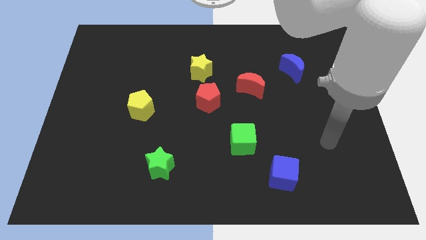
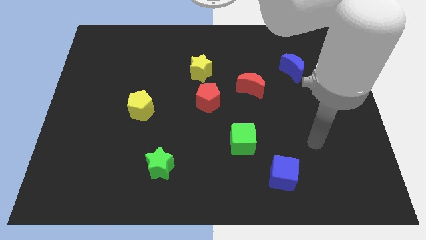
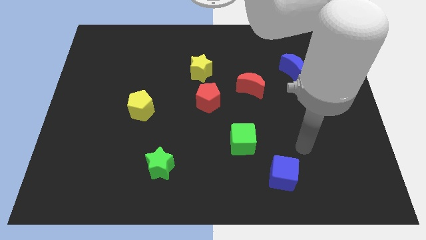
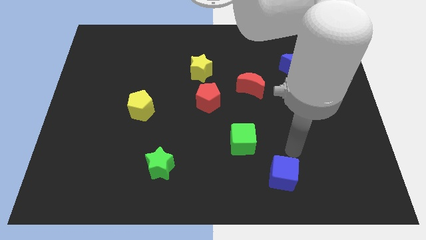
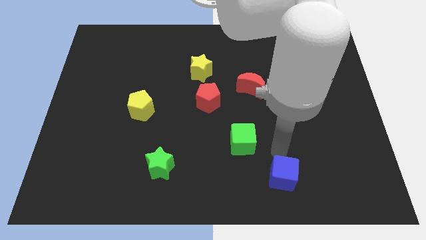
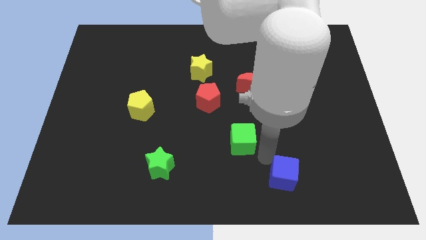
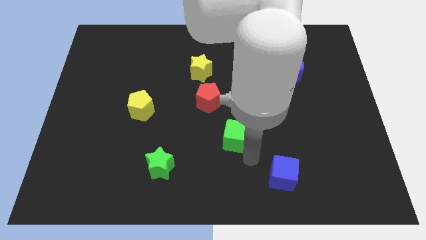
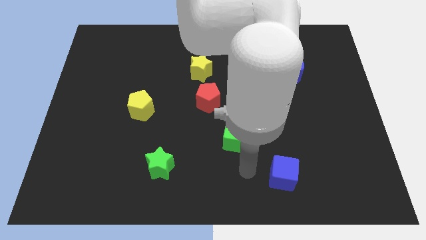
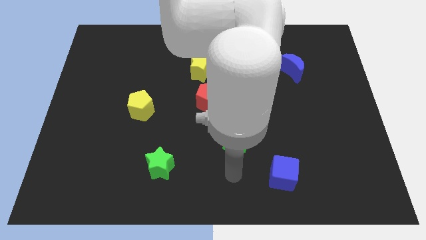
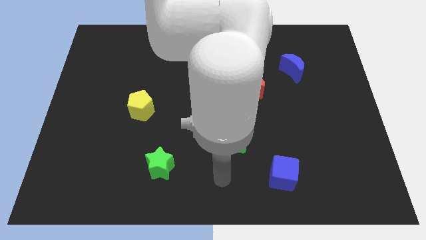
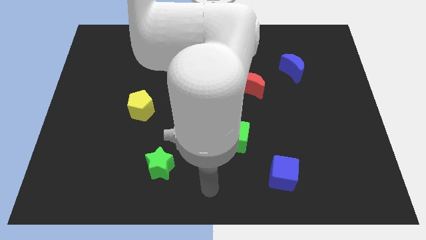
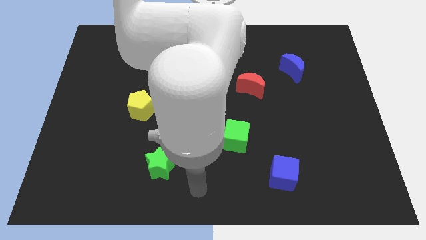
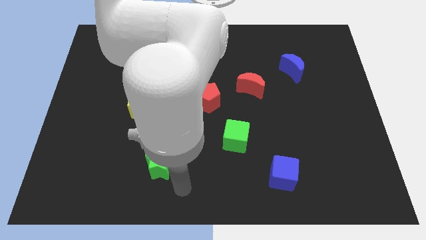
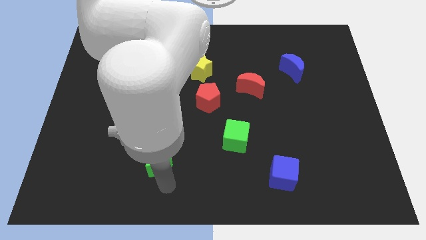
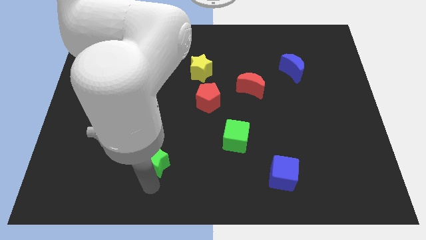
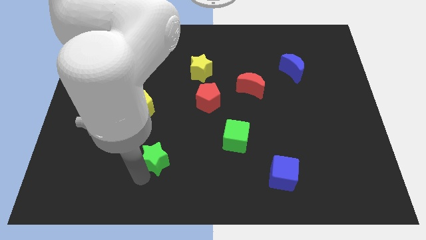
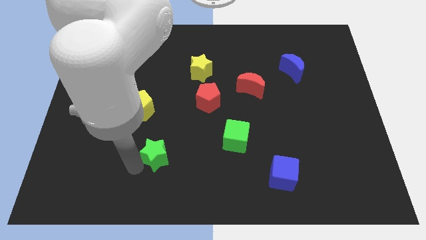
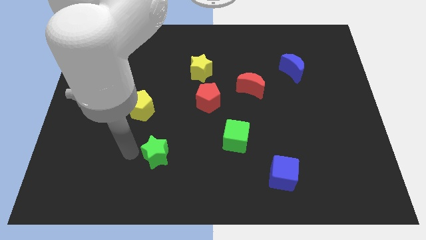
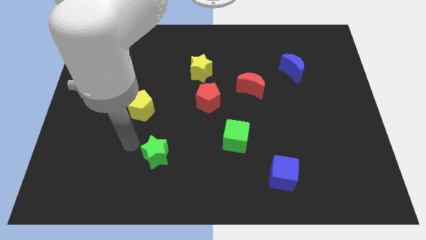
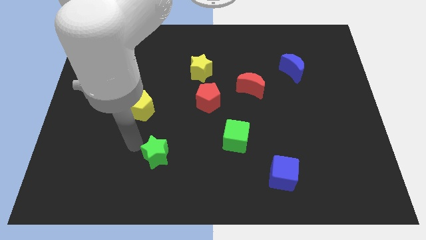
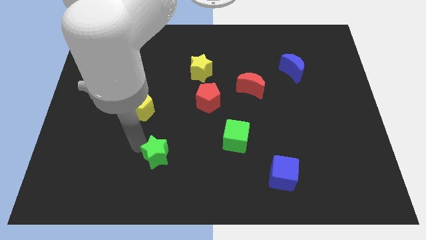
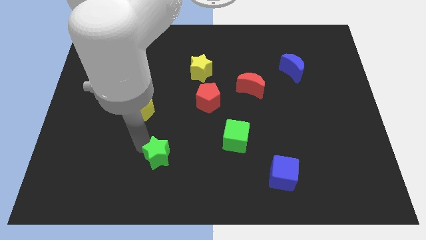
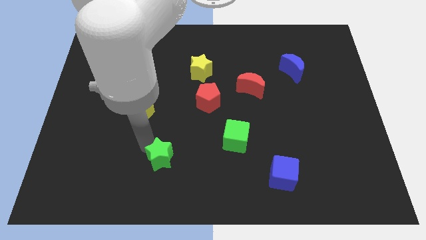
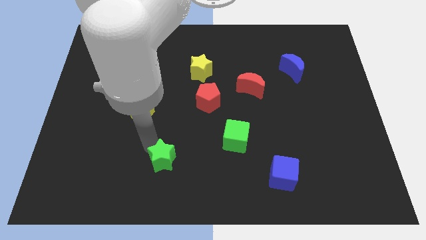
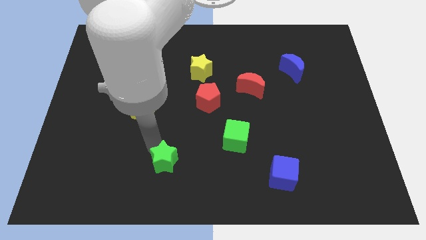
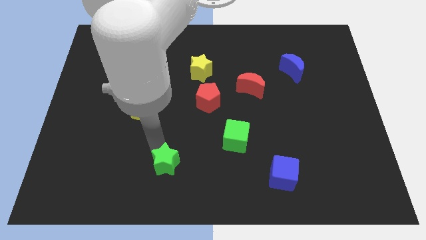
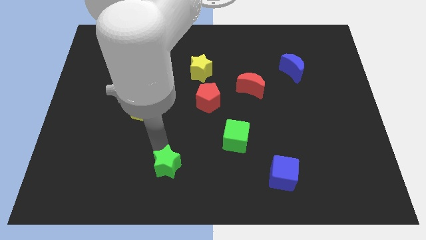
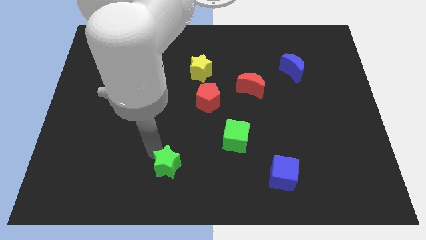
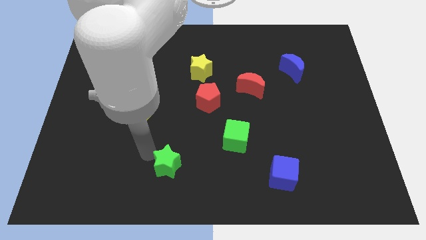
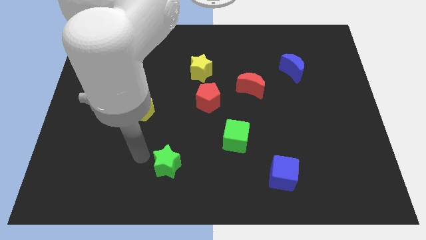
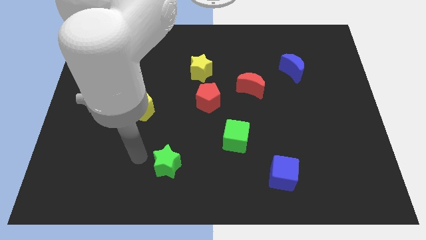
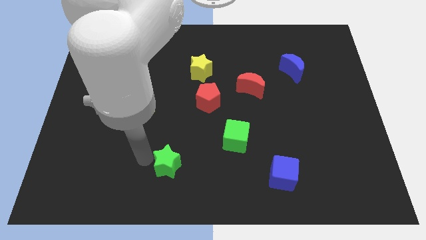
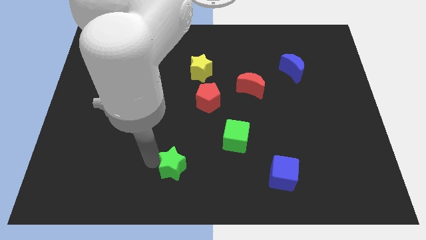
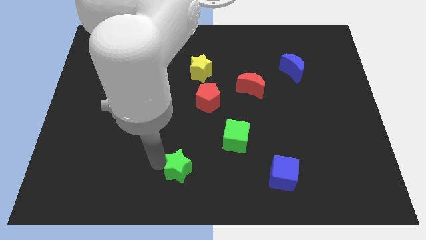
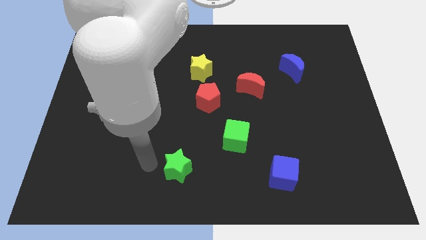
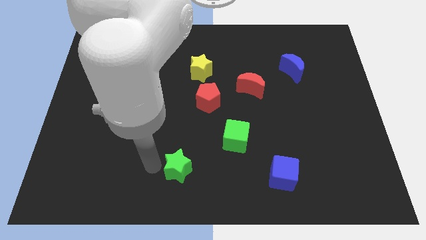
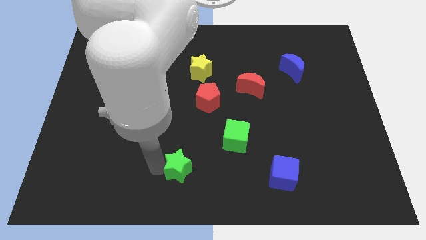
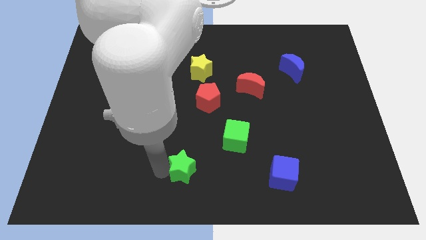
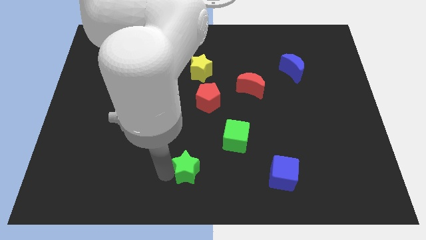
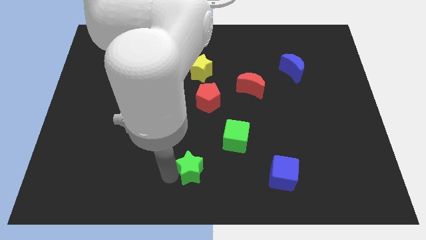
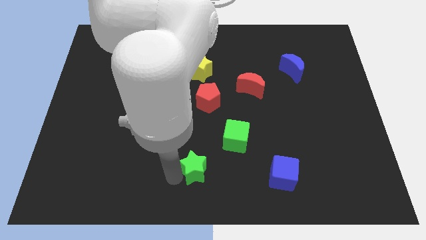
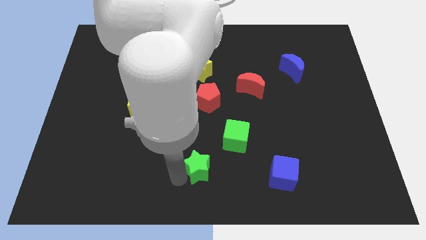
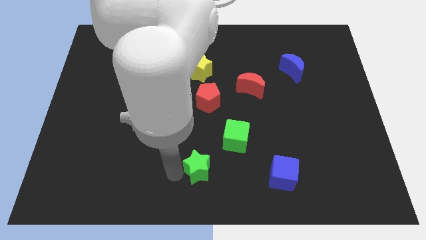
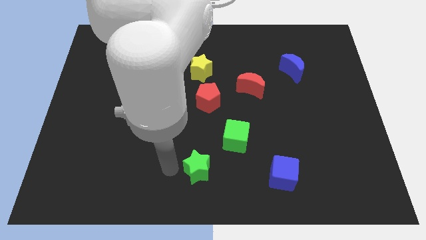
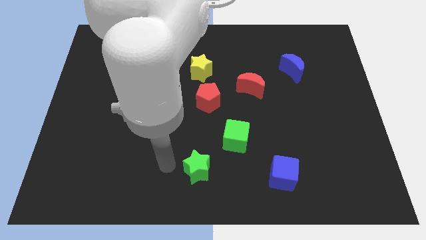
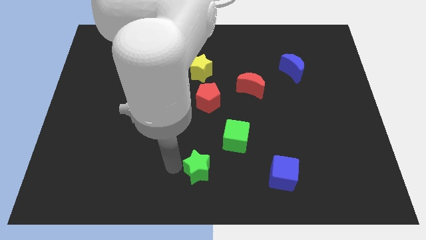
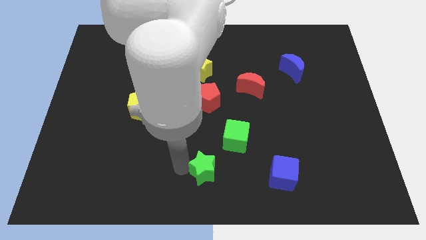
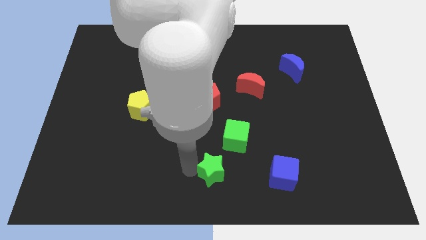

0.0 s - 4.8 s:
push the green star just left of the blue cube

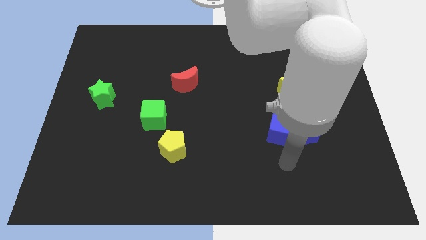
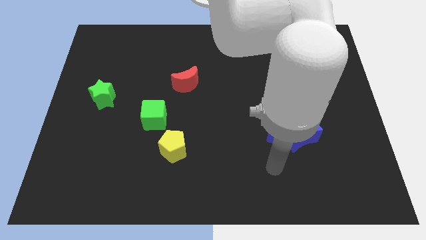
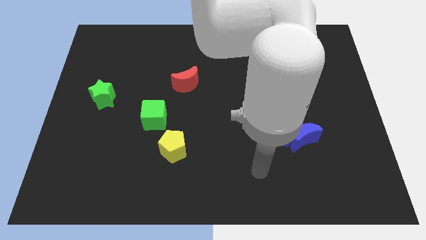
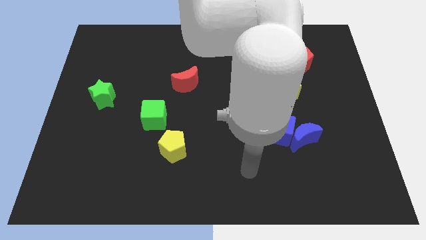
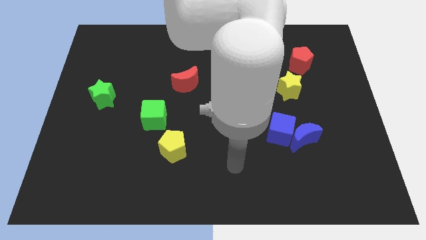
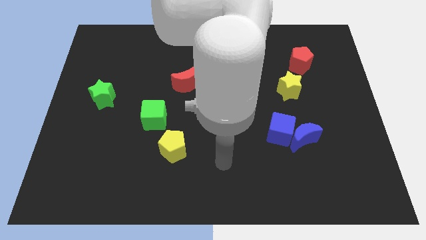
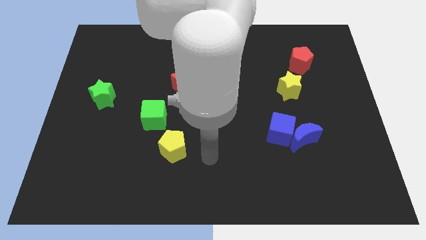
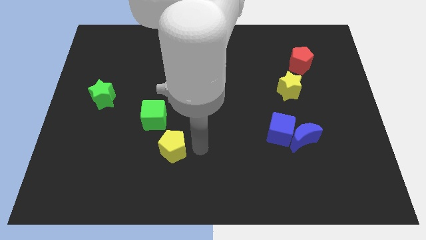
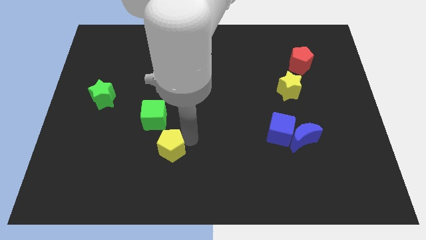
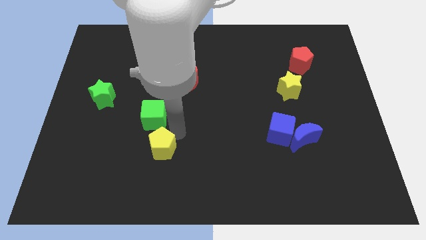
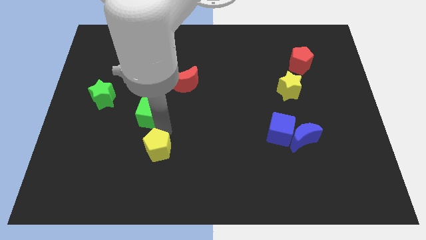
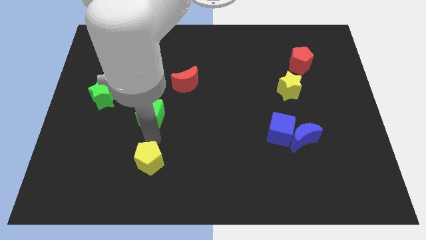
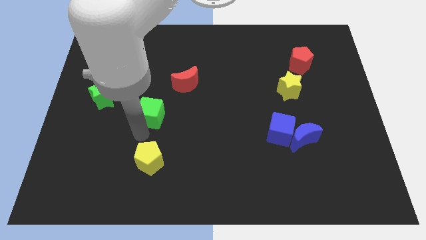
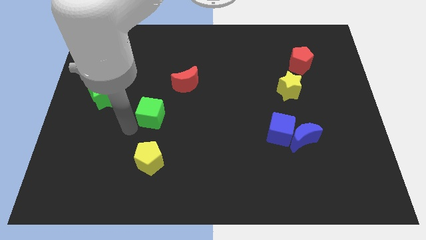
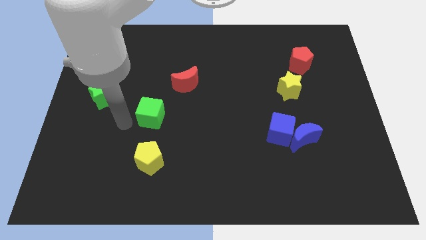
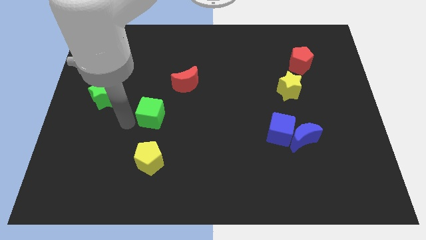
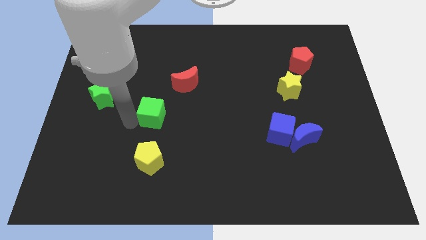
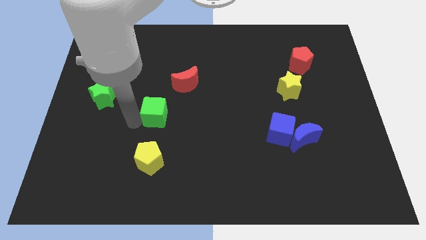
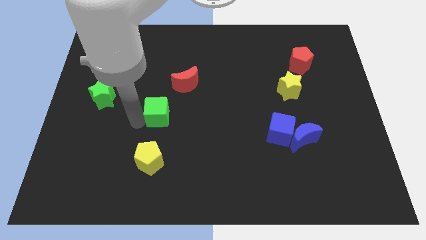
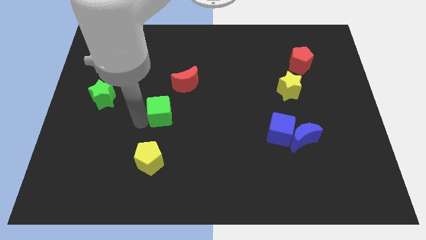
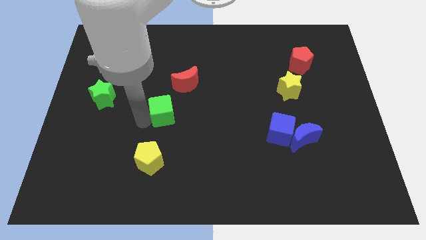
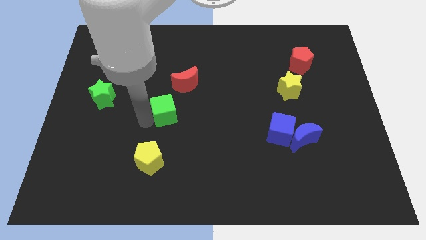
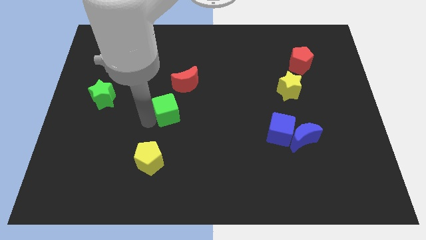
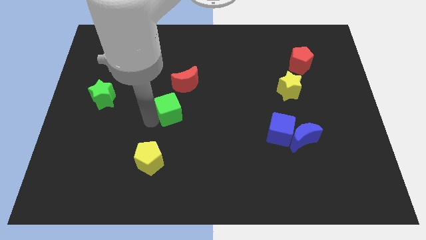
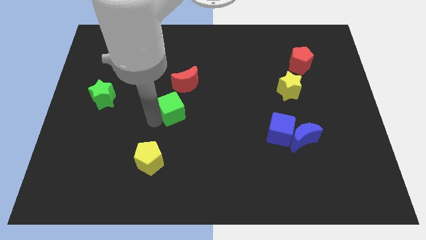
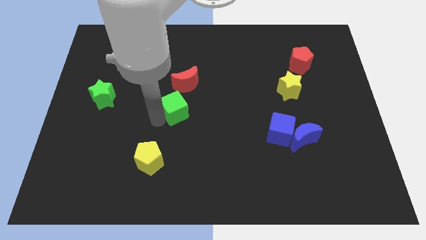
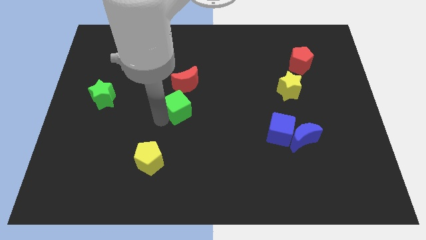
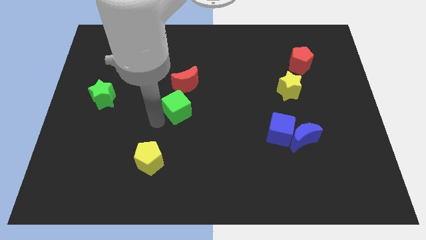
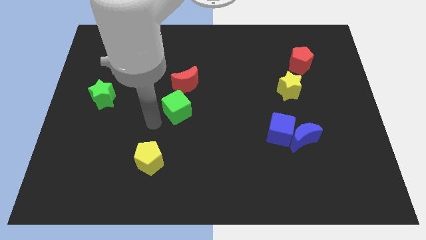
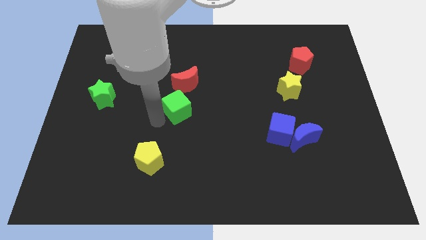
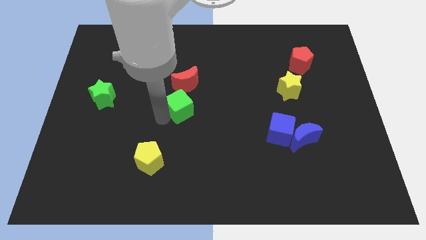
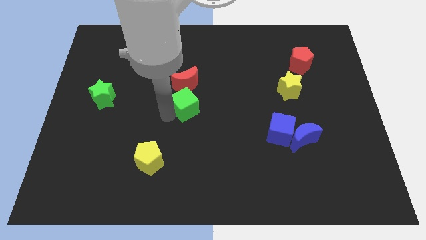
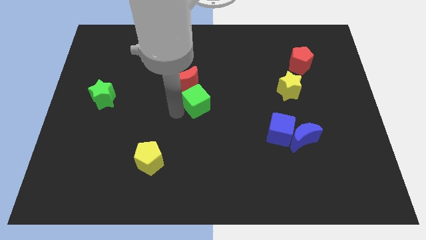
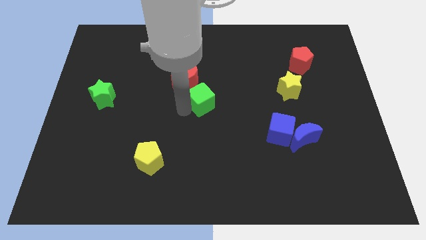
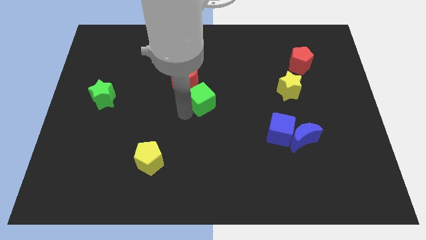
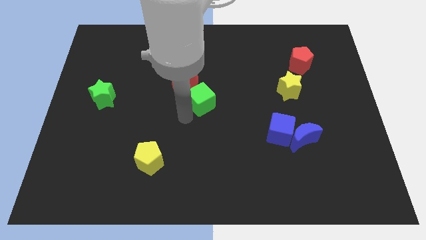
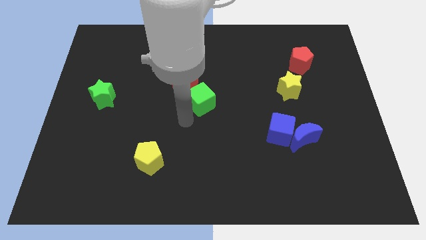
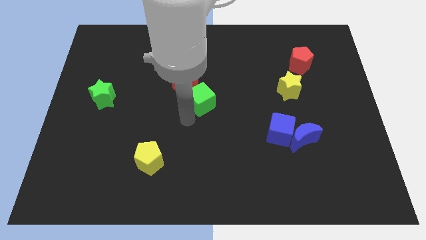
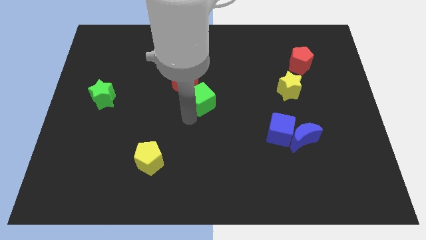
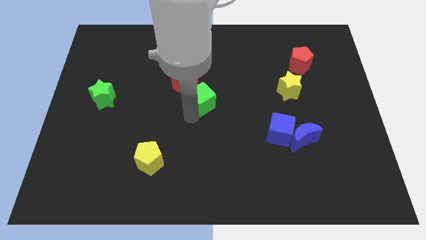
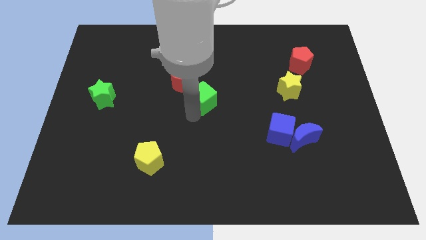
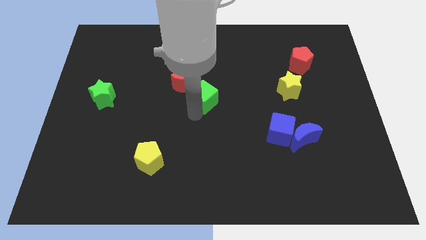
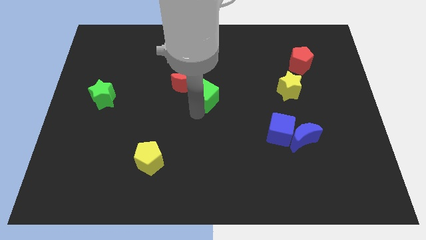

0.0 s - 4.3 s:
push the green cube to the right of the red moon
